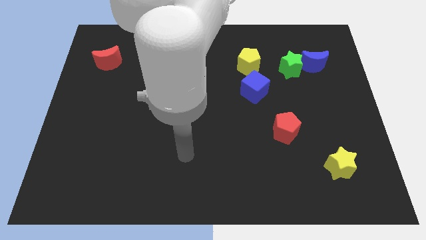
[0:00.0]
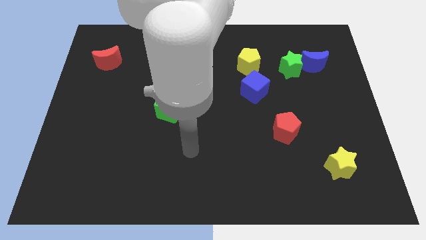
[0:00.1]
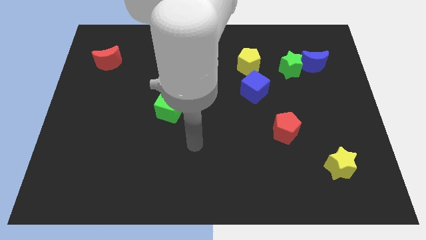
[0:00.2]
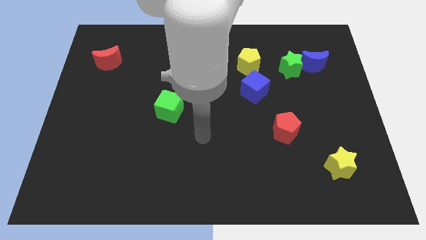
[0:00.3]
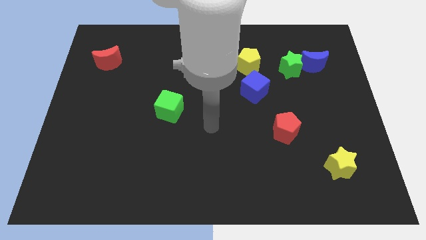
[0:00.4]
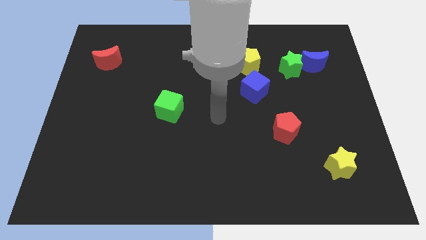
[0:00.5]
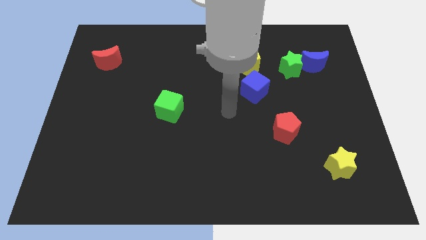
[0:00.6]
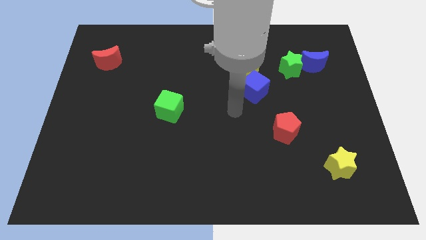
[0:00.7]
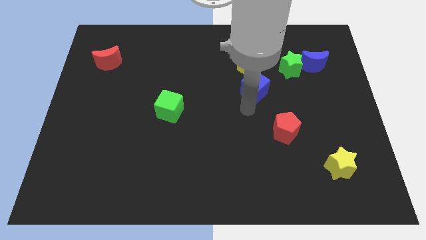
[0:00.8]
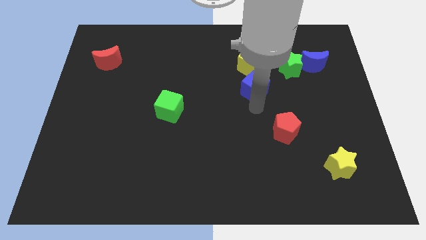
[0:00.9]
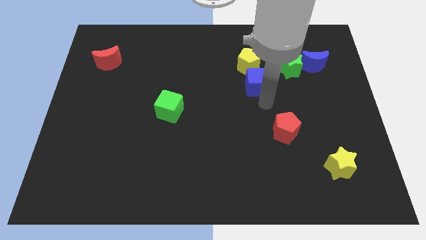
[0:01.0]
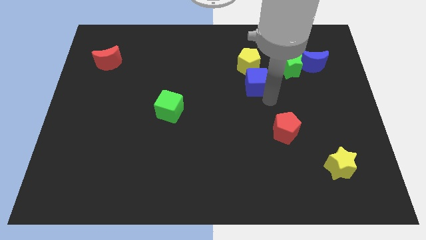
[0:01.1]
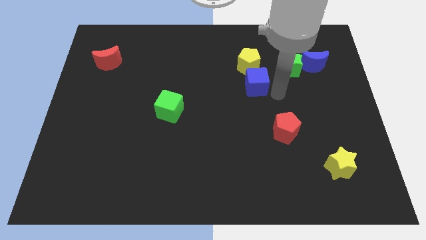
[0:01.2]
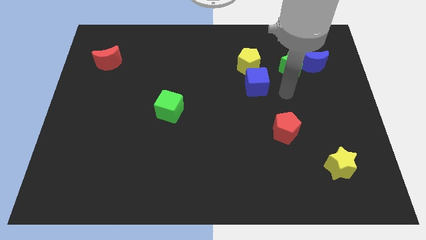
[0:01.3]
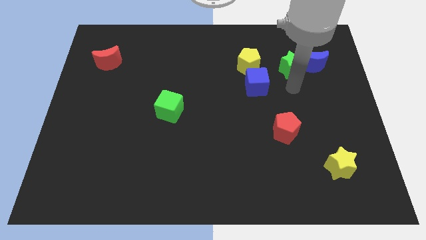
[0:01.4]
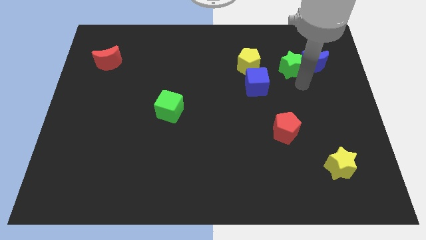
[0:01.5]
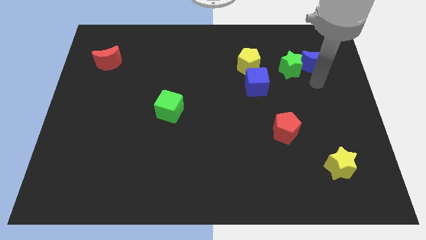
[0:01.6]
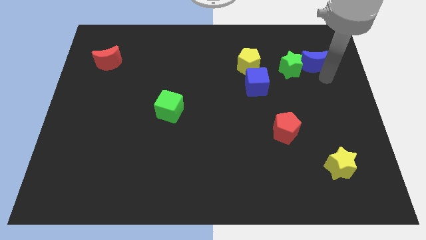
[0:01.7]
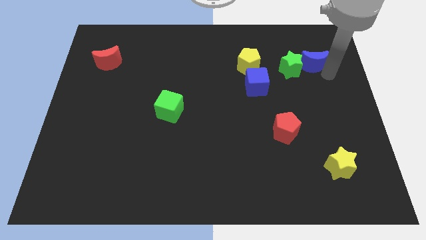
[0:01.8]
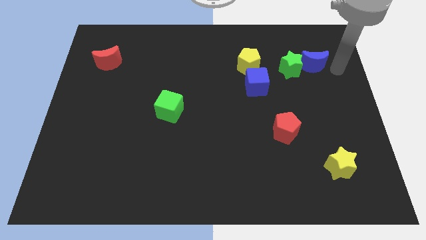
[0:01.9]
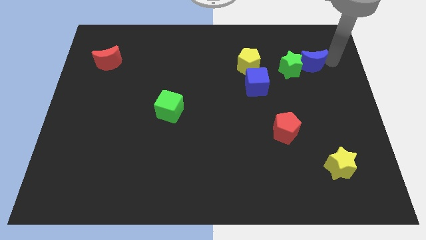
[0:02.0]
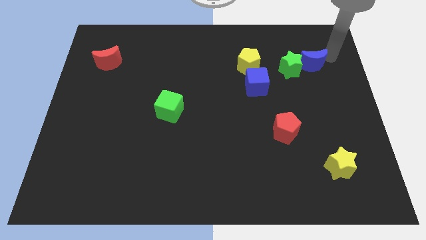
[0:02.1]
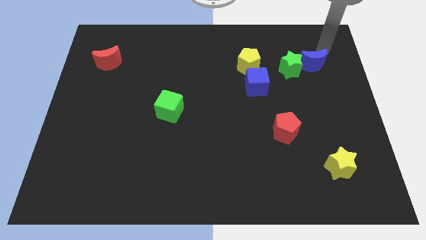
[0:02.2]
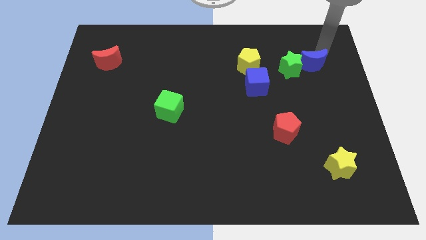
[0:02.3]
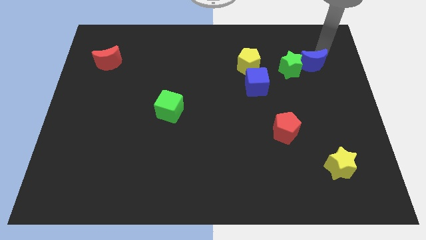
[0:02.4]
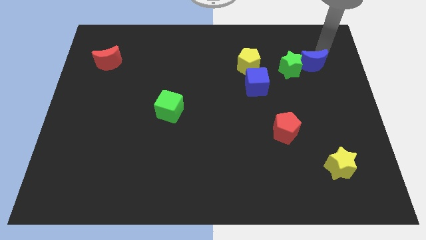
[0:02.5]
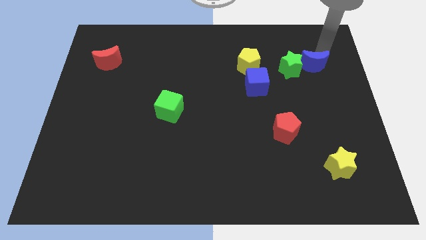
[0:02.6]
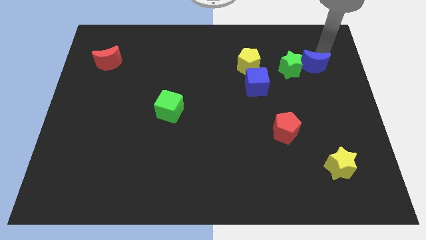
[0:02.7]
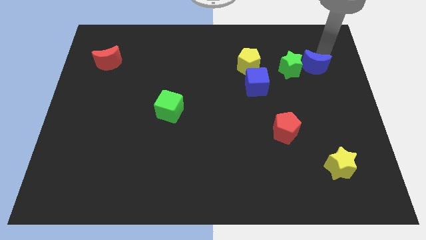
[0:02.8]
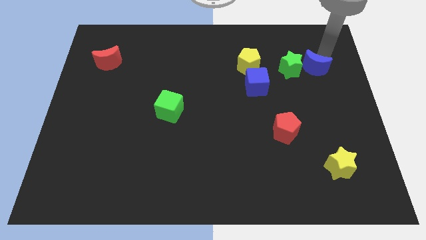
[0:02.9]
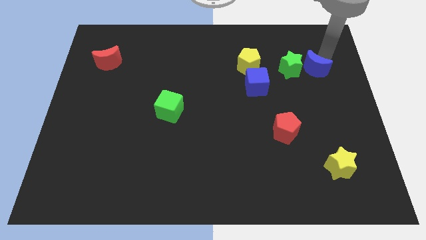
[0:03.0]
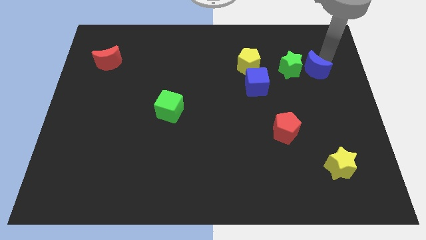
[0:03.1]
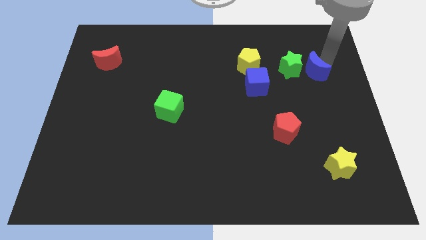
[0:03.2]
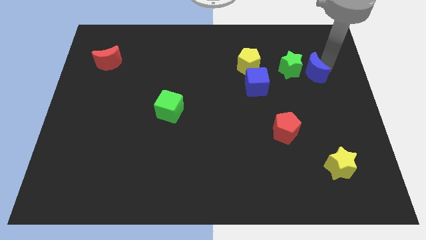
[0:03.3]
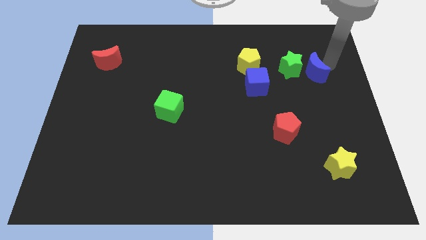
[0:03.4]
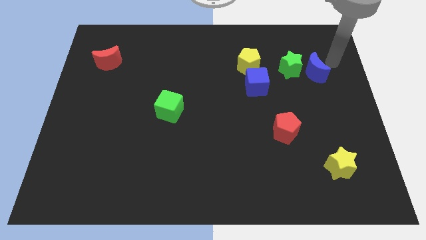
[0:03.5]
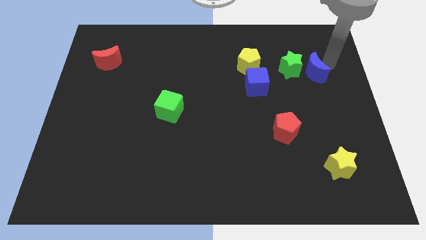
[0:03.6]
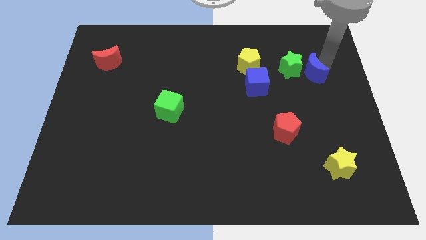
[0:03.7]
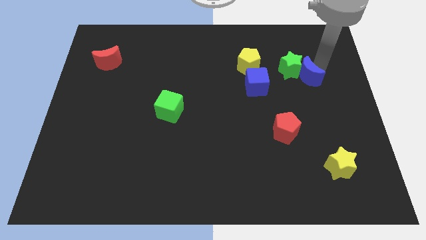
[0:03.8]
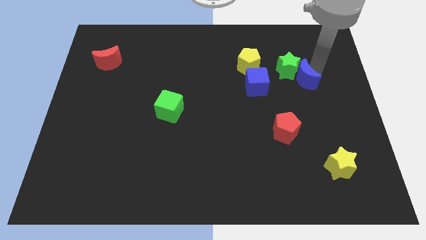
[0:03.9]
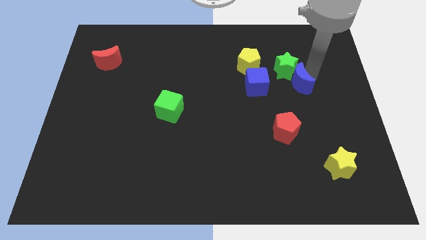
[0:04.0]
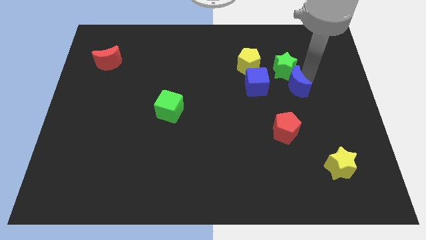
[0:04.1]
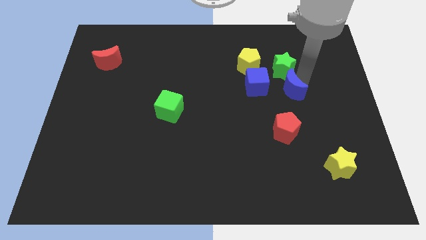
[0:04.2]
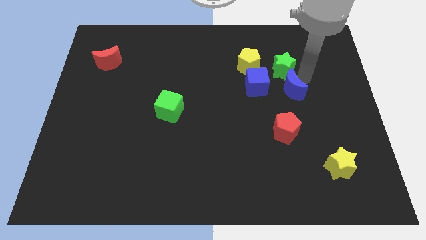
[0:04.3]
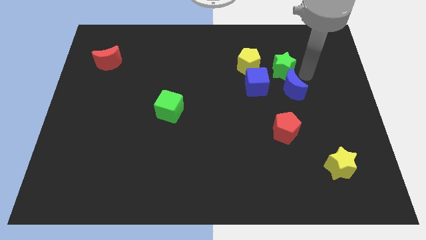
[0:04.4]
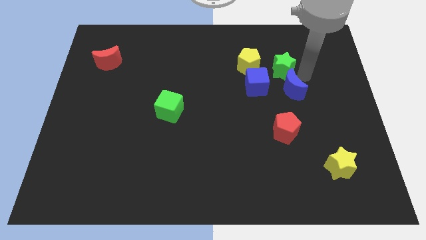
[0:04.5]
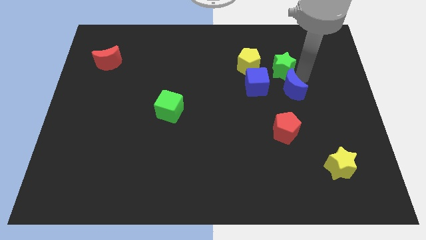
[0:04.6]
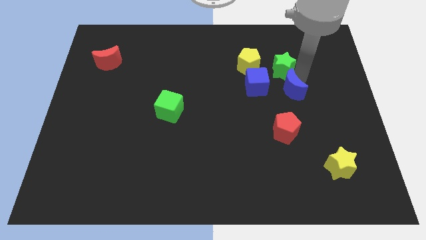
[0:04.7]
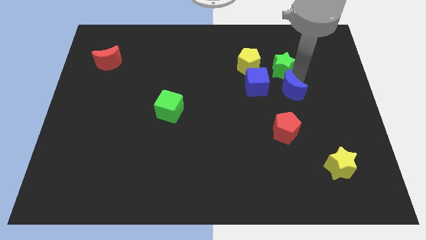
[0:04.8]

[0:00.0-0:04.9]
push the blue moon to the bottom right side of the blue cube

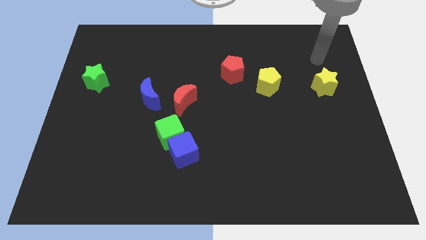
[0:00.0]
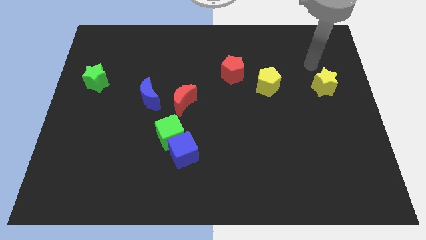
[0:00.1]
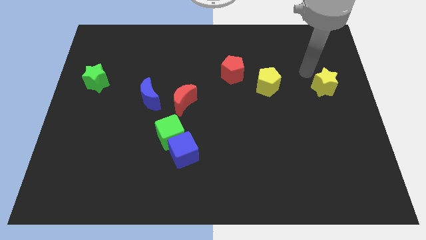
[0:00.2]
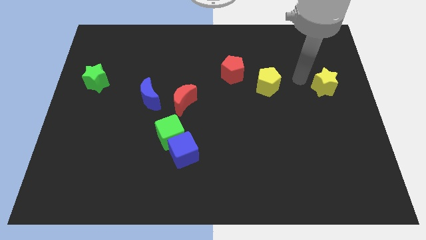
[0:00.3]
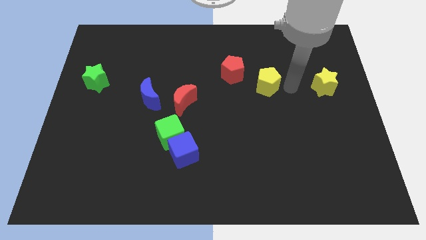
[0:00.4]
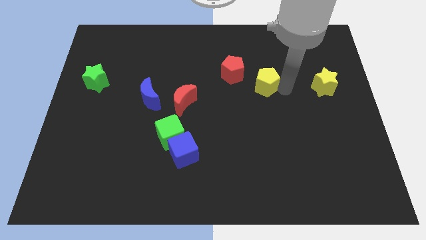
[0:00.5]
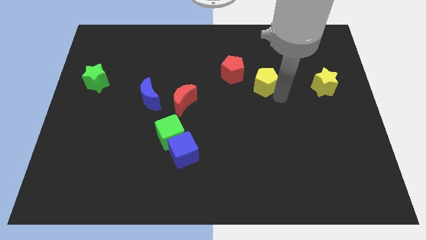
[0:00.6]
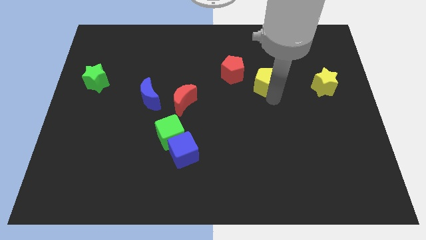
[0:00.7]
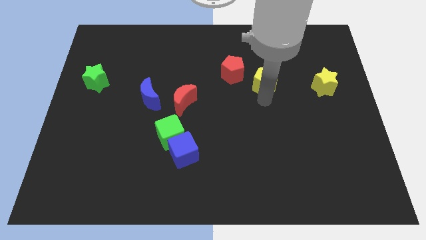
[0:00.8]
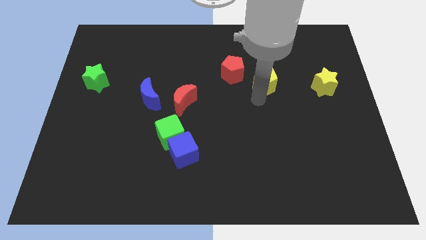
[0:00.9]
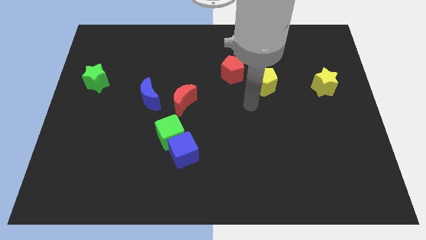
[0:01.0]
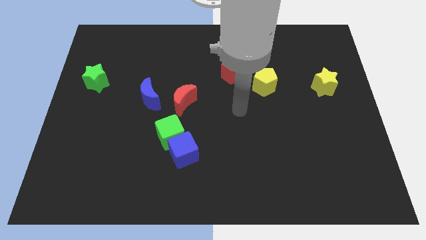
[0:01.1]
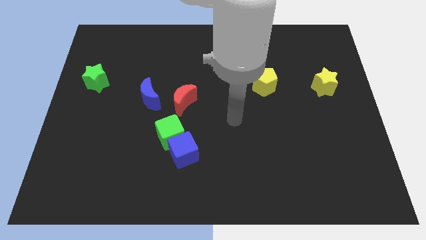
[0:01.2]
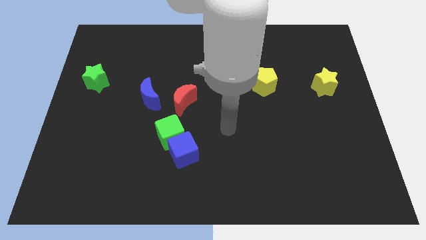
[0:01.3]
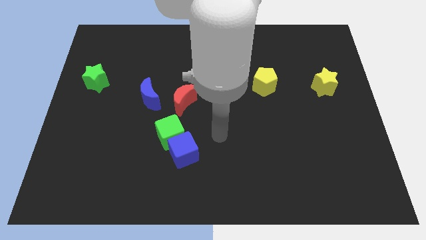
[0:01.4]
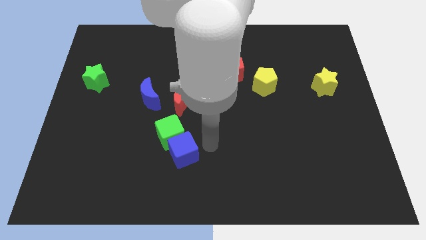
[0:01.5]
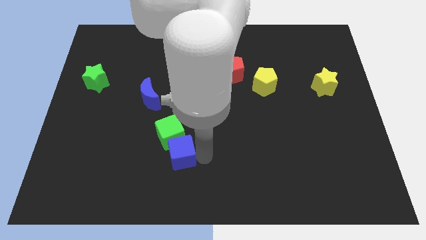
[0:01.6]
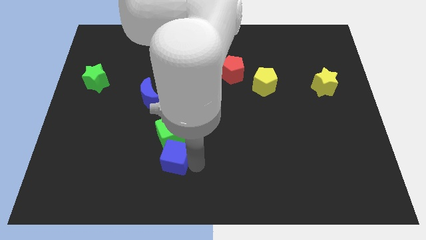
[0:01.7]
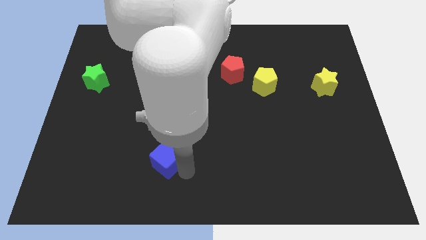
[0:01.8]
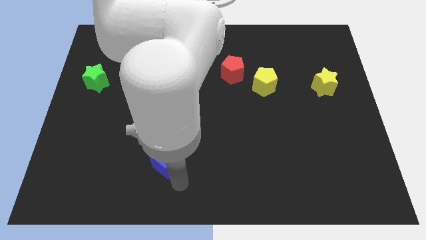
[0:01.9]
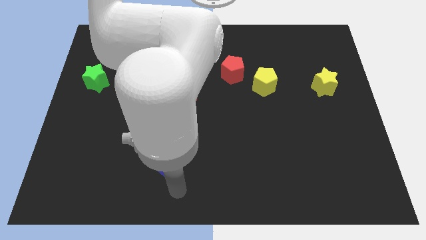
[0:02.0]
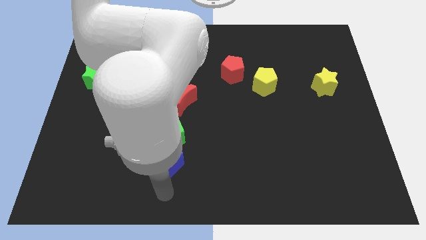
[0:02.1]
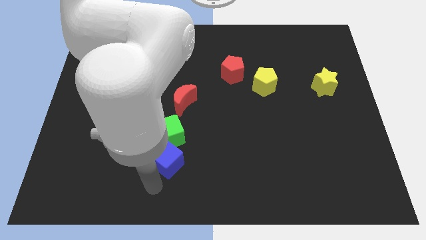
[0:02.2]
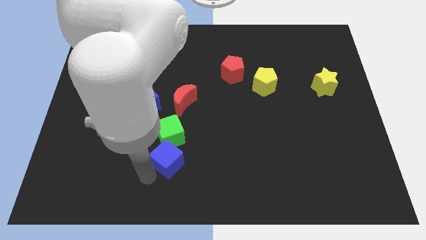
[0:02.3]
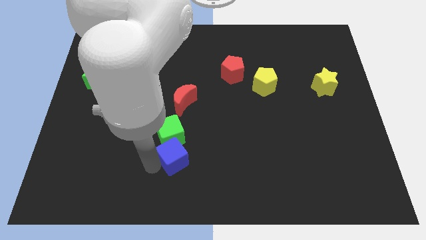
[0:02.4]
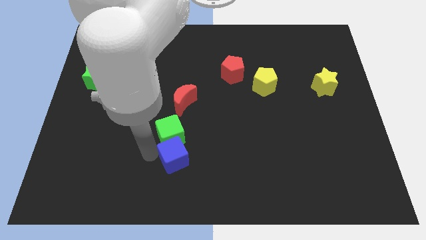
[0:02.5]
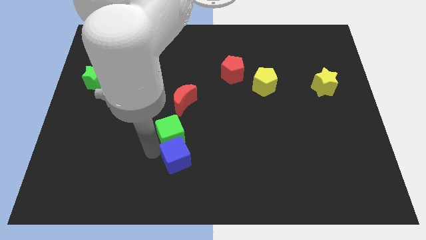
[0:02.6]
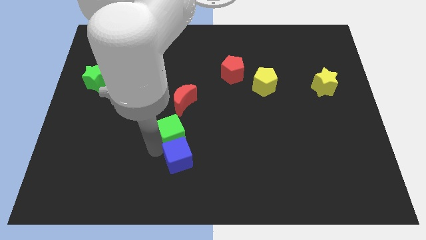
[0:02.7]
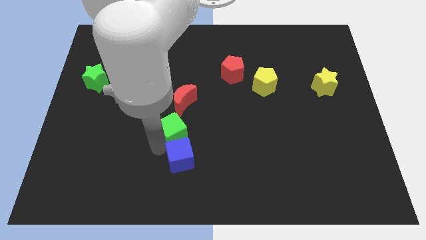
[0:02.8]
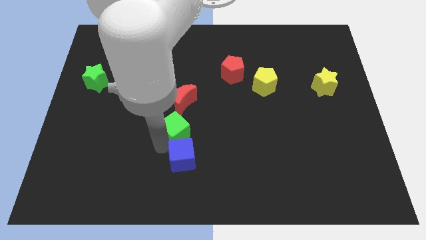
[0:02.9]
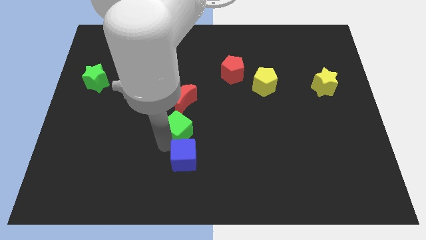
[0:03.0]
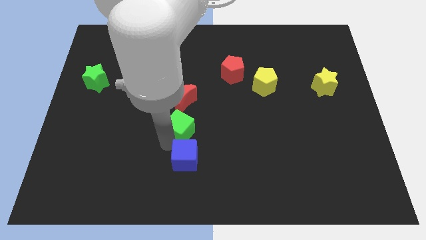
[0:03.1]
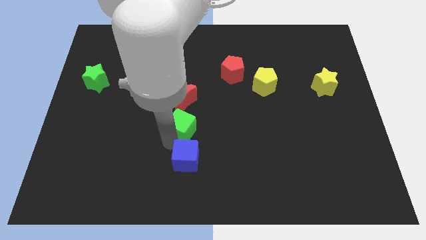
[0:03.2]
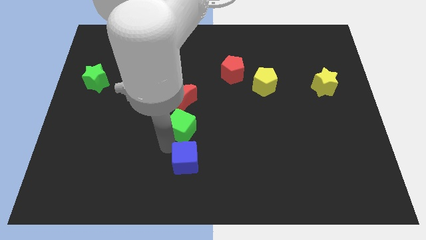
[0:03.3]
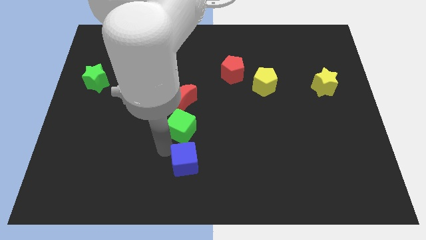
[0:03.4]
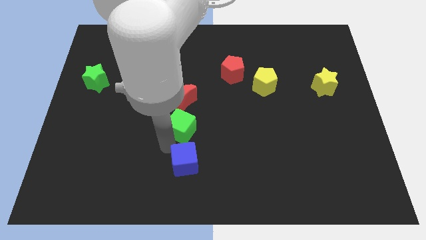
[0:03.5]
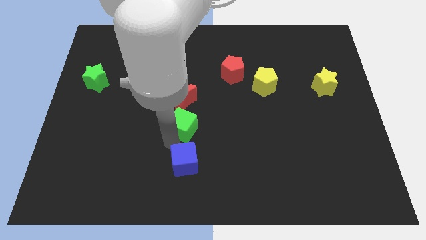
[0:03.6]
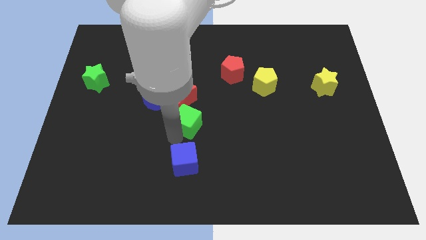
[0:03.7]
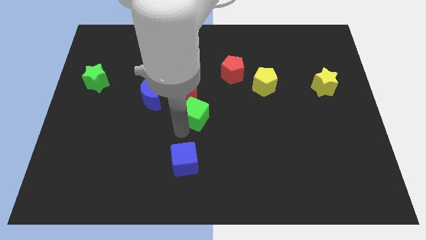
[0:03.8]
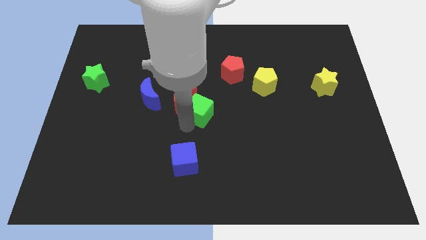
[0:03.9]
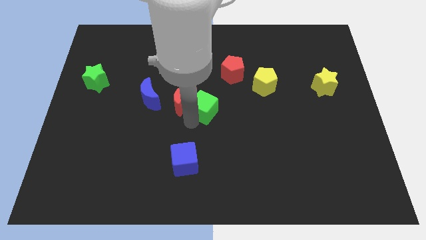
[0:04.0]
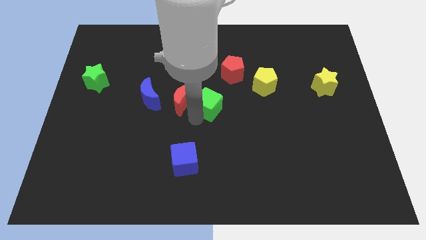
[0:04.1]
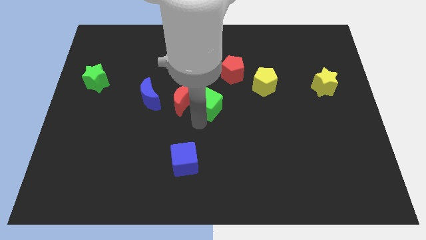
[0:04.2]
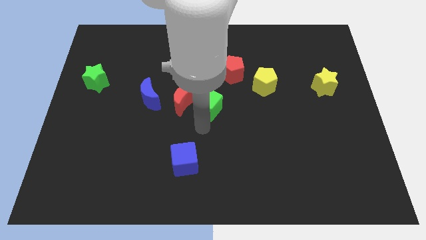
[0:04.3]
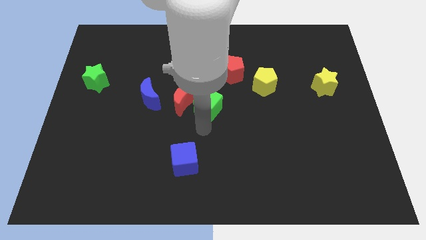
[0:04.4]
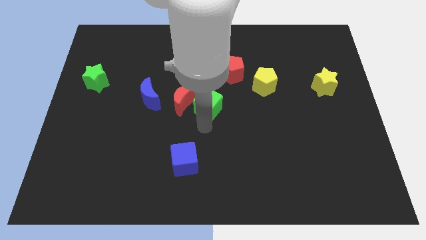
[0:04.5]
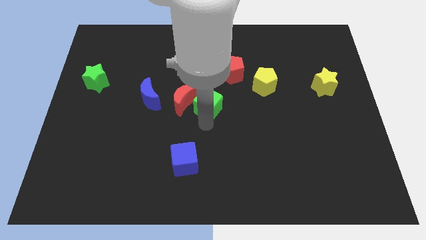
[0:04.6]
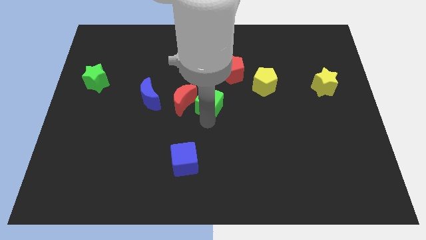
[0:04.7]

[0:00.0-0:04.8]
put the green cube diagonally down and to the left of the red pentagon
